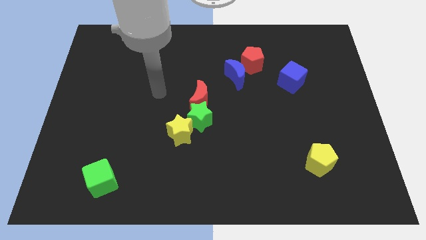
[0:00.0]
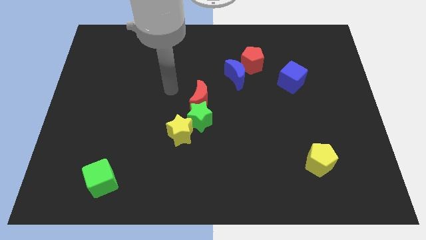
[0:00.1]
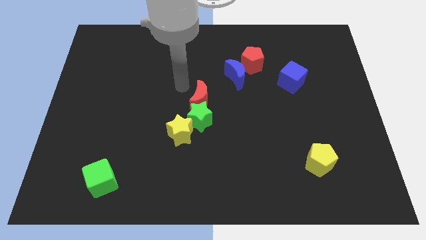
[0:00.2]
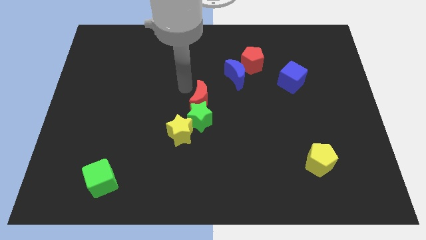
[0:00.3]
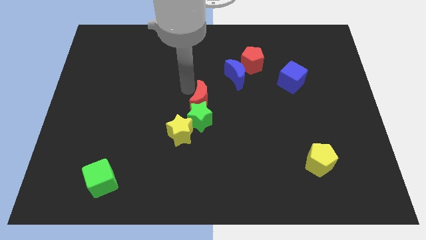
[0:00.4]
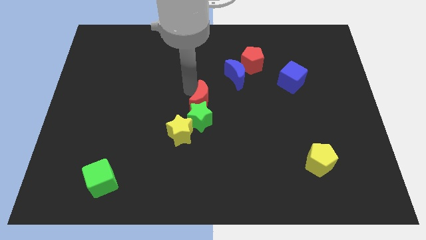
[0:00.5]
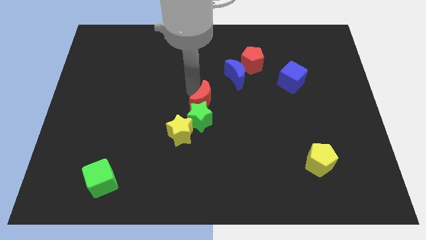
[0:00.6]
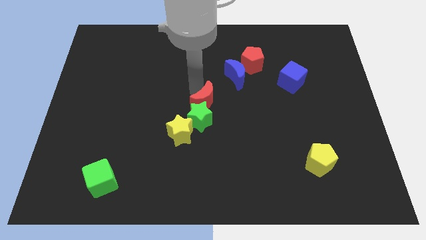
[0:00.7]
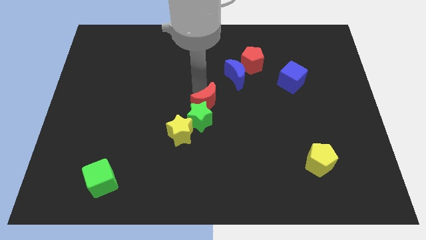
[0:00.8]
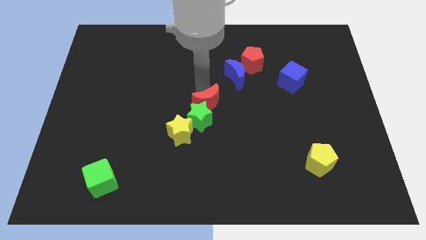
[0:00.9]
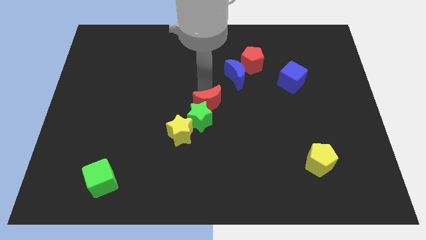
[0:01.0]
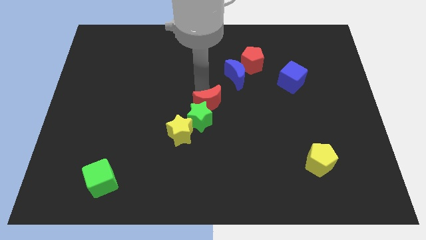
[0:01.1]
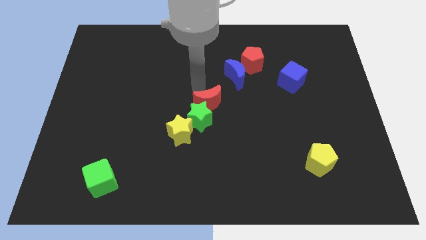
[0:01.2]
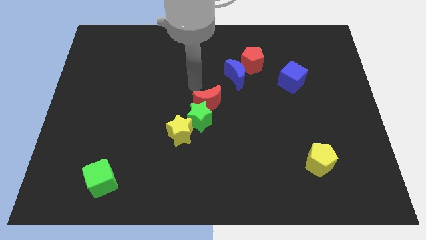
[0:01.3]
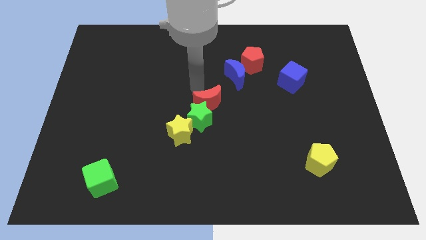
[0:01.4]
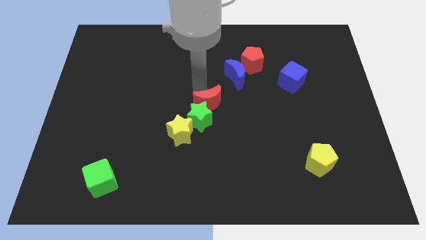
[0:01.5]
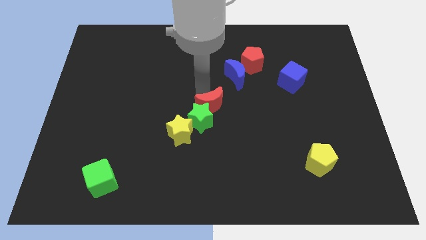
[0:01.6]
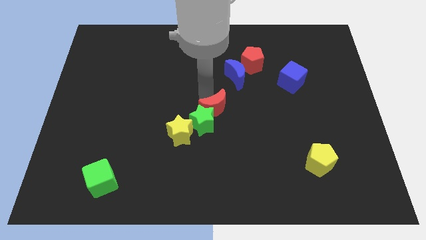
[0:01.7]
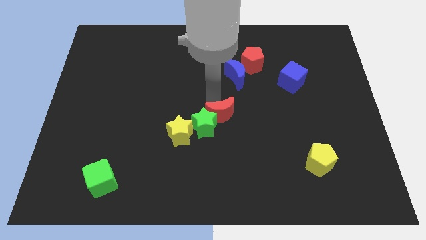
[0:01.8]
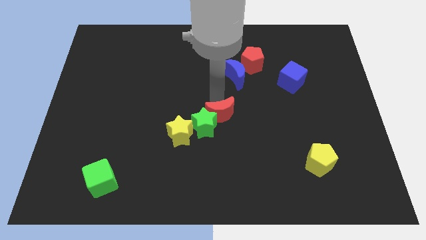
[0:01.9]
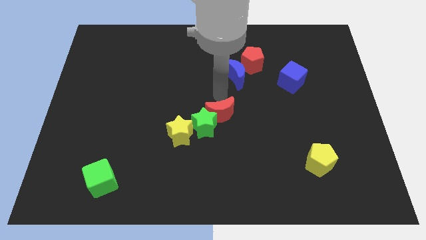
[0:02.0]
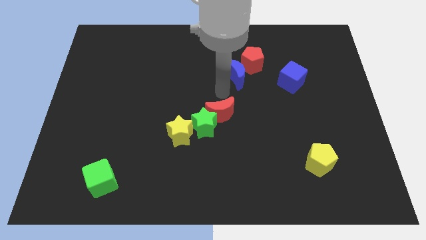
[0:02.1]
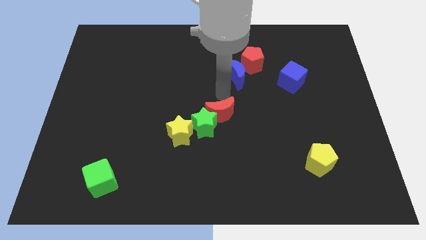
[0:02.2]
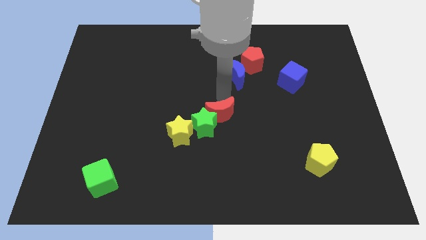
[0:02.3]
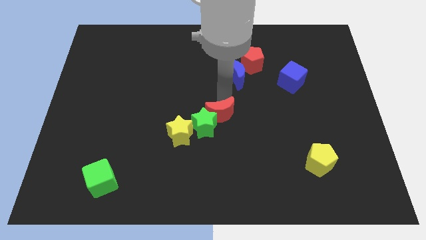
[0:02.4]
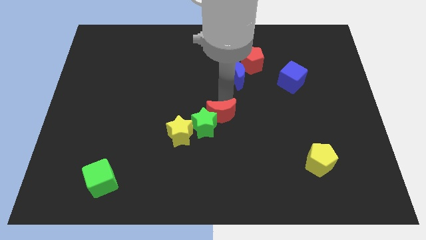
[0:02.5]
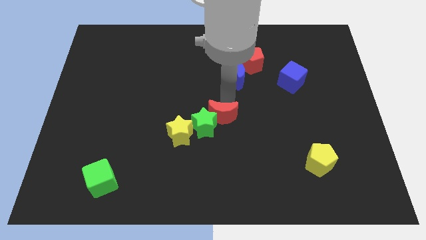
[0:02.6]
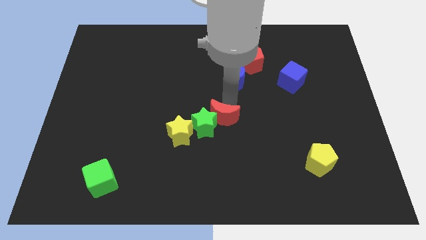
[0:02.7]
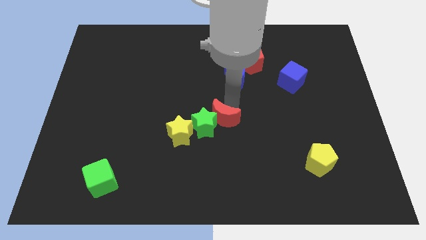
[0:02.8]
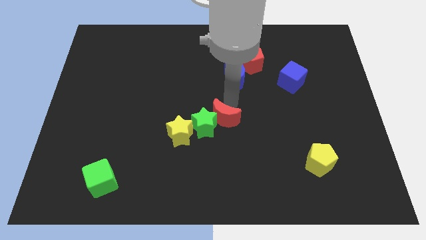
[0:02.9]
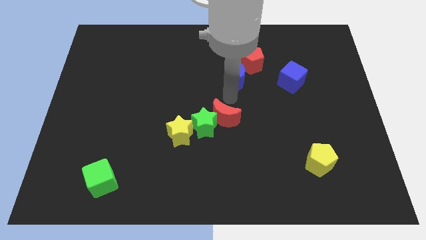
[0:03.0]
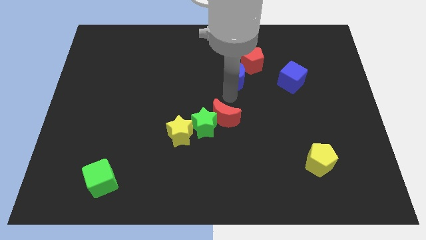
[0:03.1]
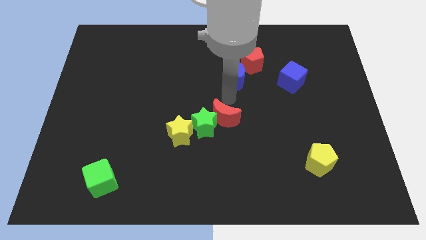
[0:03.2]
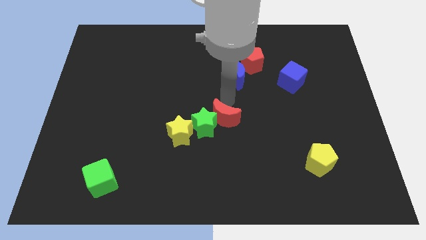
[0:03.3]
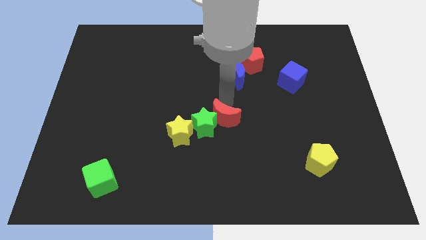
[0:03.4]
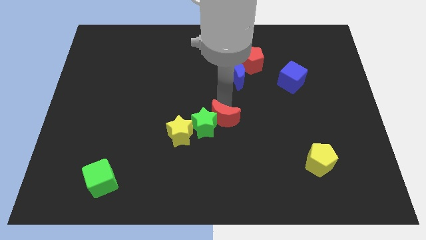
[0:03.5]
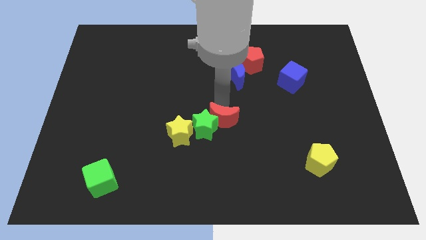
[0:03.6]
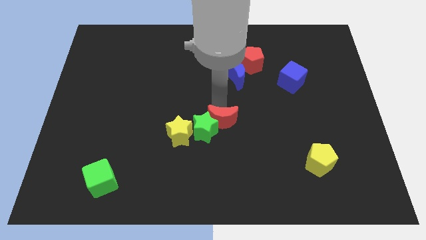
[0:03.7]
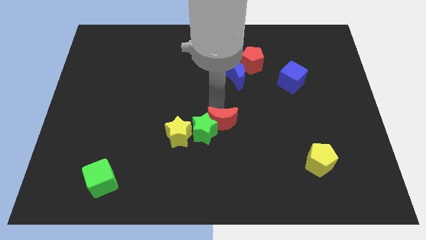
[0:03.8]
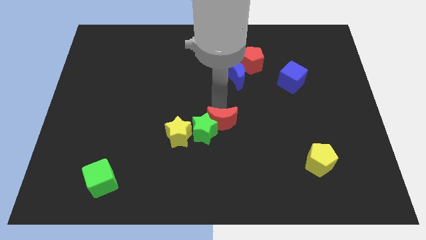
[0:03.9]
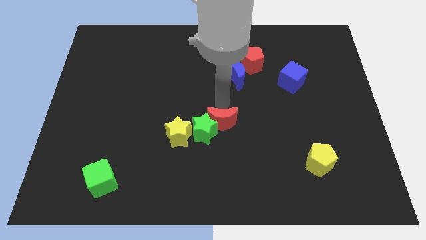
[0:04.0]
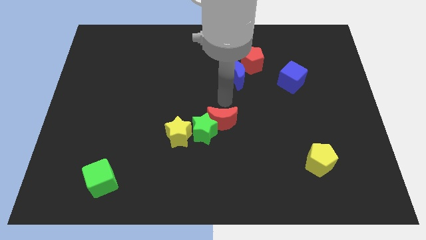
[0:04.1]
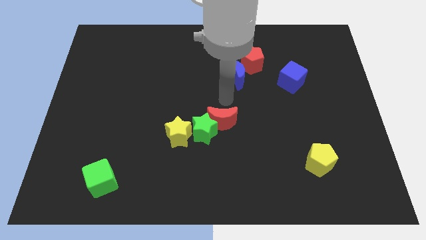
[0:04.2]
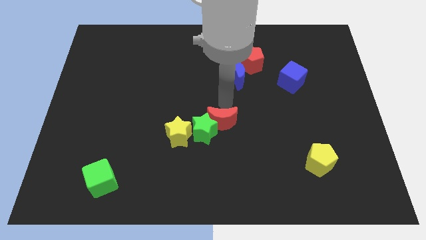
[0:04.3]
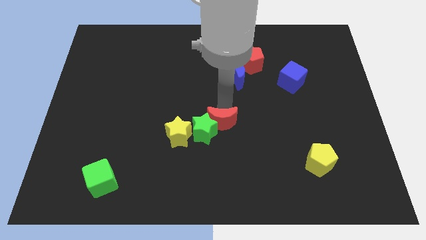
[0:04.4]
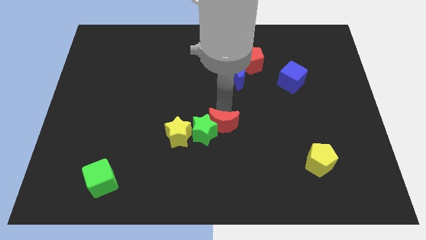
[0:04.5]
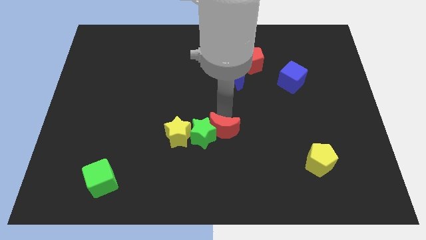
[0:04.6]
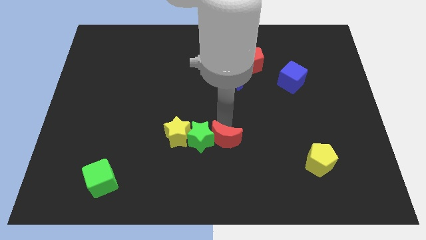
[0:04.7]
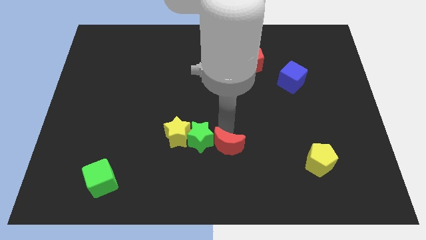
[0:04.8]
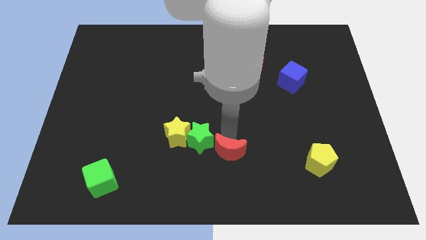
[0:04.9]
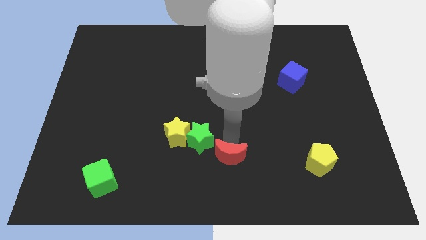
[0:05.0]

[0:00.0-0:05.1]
slide the red moon to the bottom
